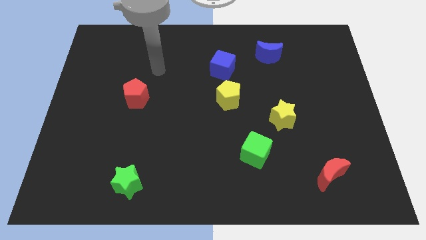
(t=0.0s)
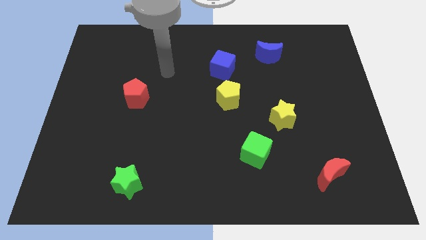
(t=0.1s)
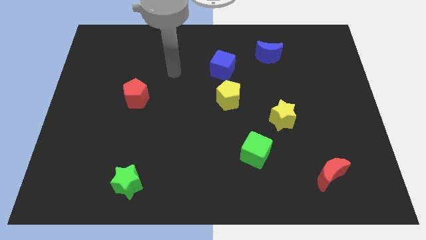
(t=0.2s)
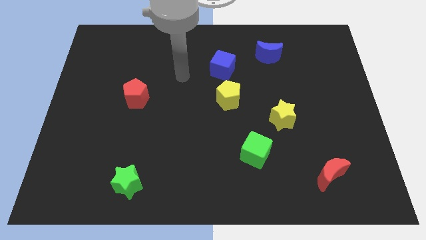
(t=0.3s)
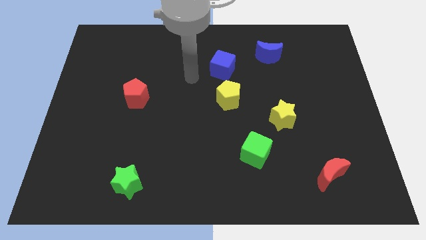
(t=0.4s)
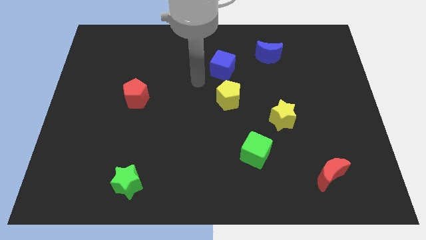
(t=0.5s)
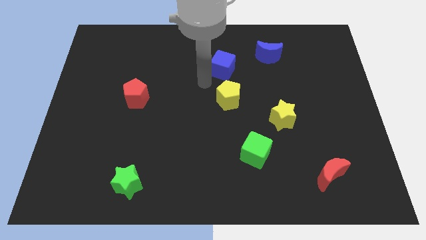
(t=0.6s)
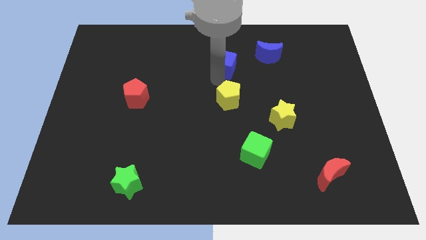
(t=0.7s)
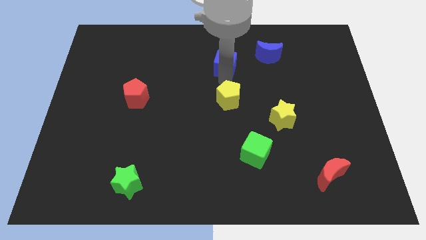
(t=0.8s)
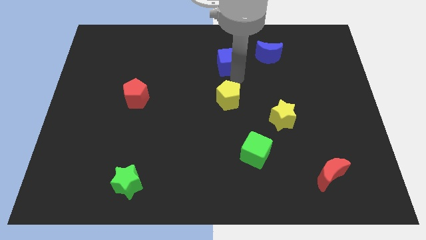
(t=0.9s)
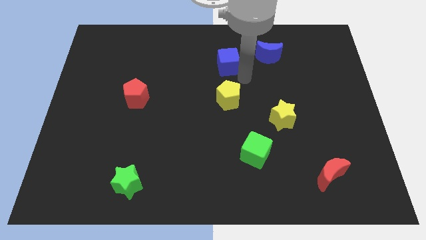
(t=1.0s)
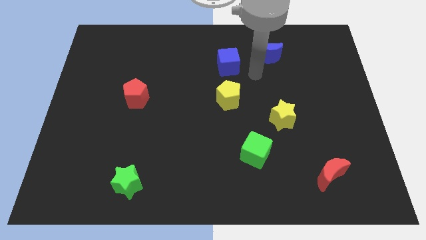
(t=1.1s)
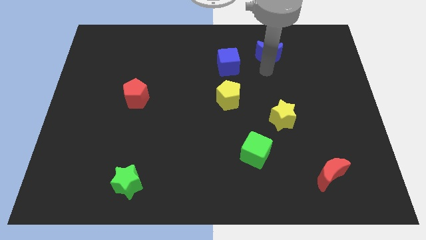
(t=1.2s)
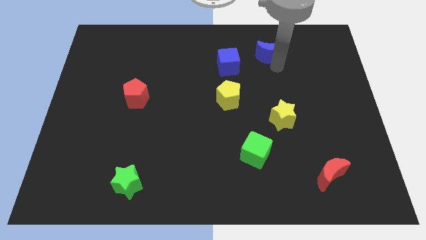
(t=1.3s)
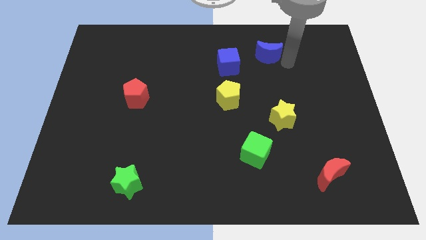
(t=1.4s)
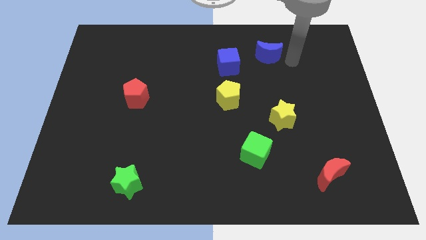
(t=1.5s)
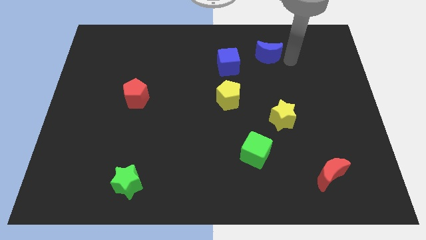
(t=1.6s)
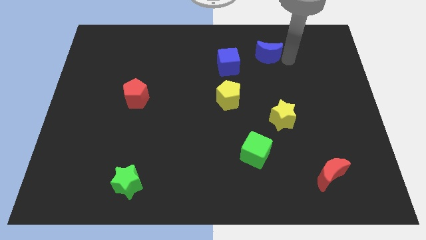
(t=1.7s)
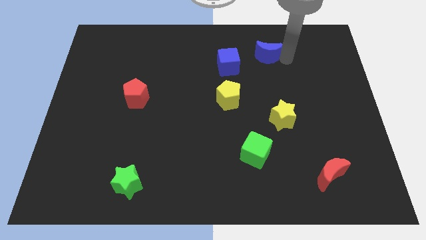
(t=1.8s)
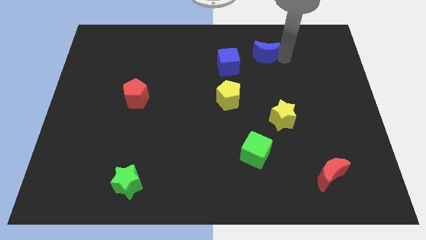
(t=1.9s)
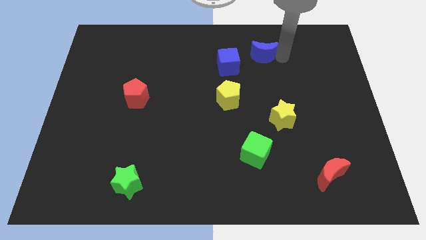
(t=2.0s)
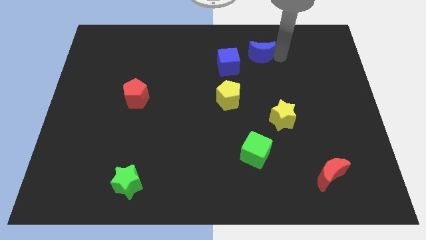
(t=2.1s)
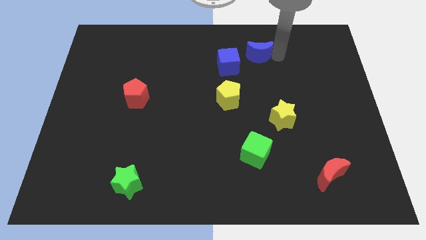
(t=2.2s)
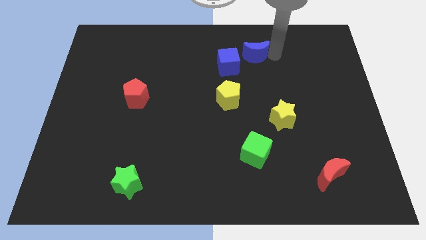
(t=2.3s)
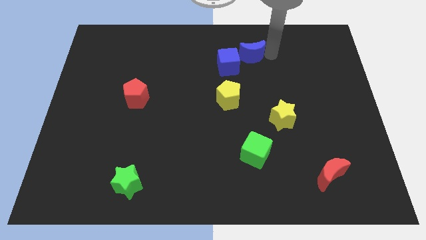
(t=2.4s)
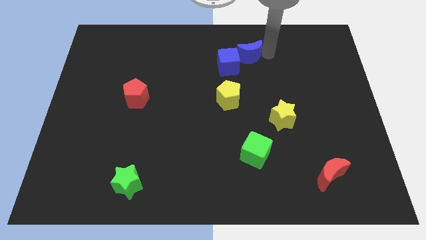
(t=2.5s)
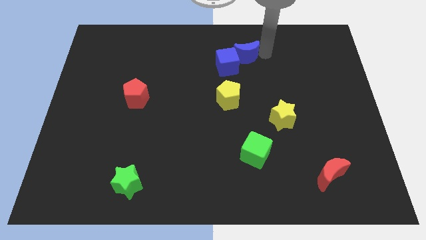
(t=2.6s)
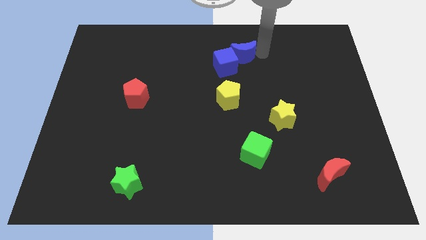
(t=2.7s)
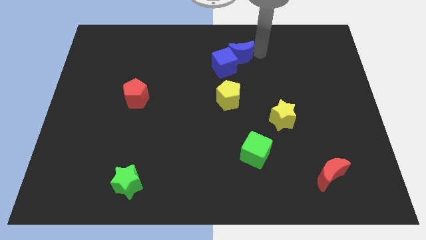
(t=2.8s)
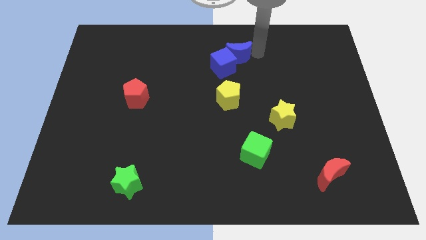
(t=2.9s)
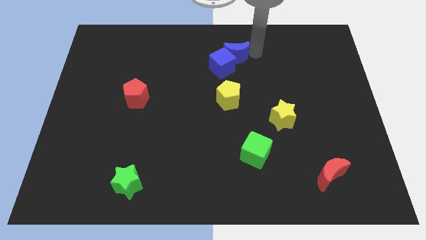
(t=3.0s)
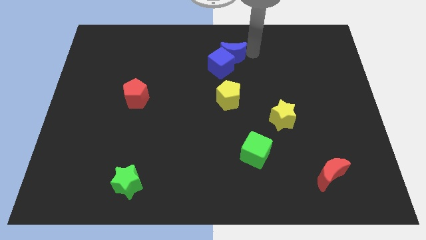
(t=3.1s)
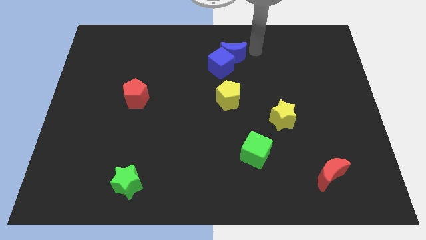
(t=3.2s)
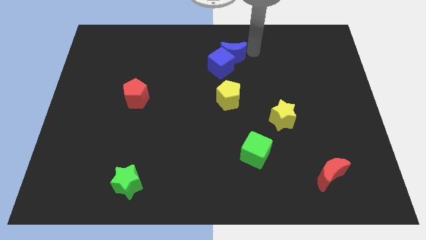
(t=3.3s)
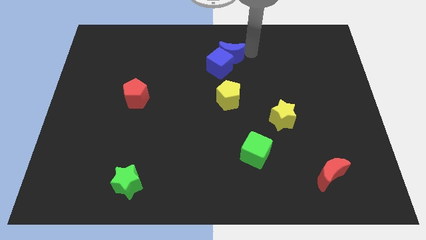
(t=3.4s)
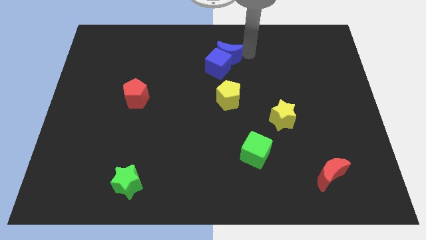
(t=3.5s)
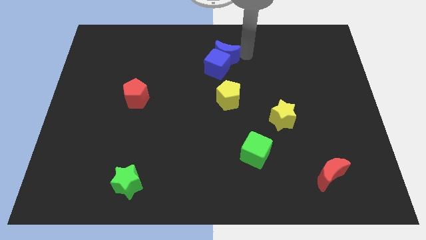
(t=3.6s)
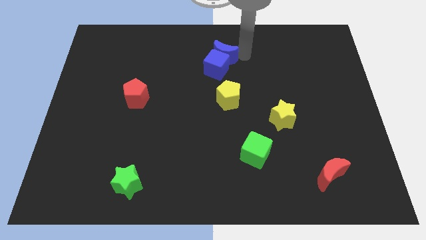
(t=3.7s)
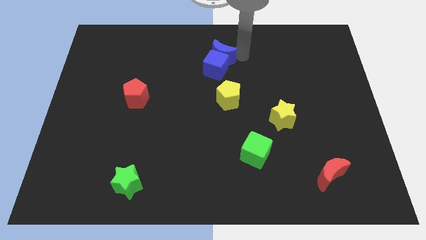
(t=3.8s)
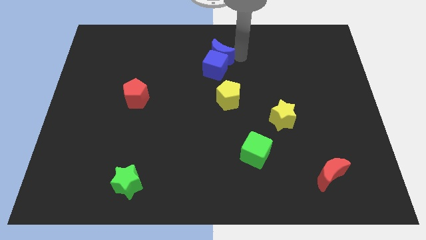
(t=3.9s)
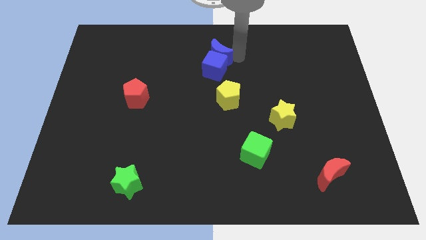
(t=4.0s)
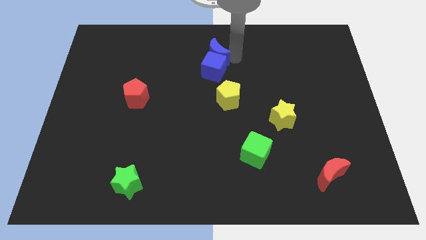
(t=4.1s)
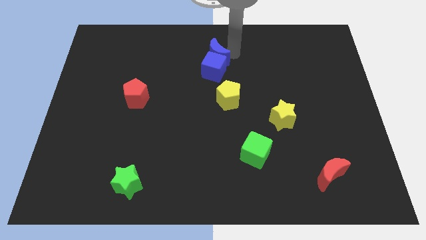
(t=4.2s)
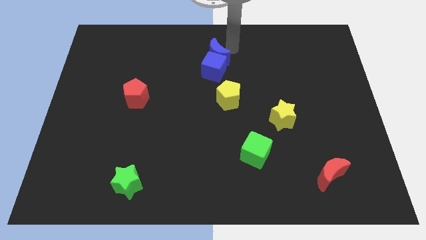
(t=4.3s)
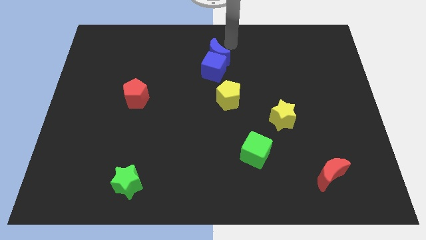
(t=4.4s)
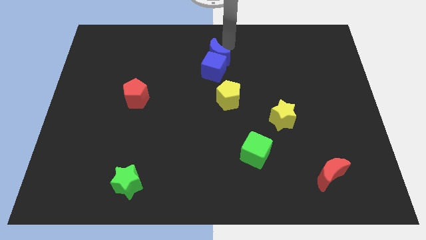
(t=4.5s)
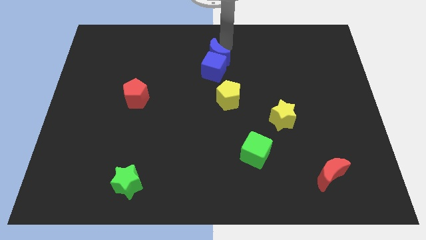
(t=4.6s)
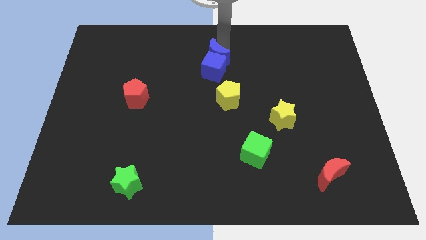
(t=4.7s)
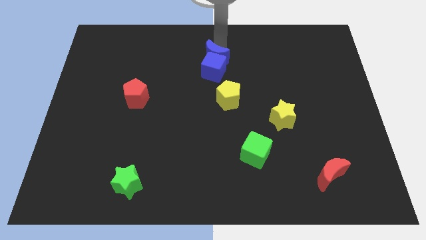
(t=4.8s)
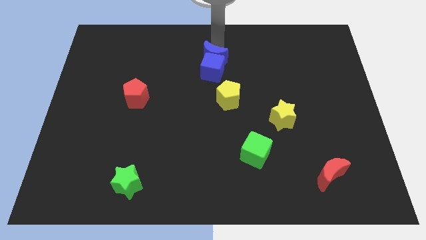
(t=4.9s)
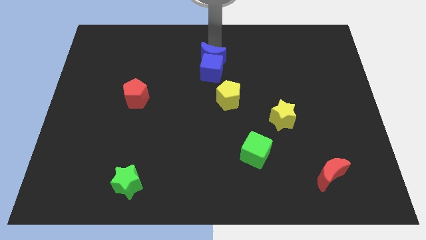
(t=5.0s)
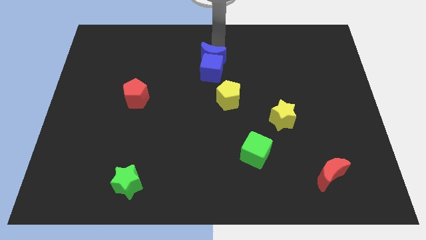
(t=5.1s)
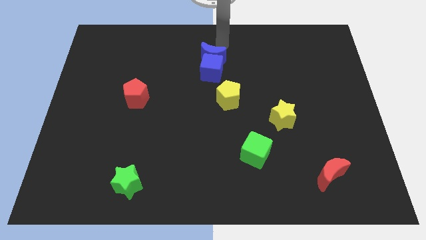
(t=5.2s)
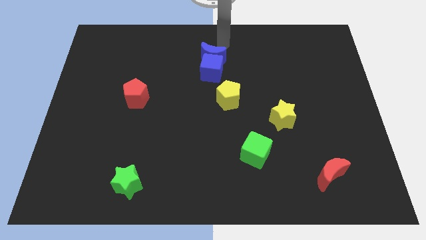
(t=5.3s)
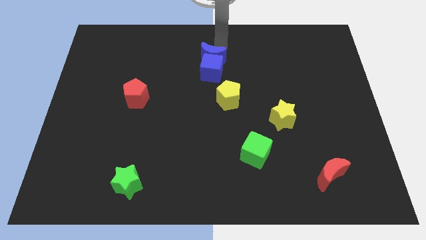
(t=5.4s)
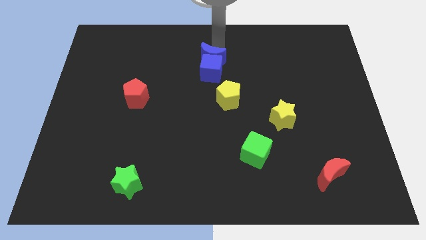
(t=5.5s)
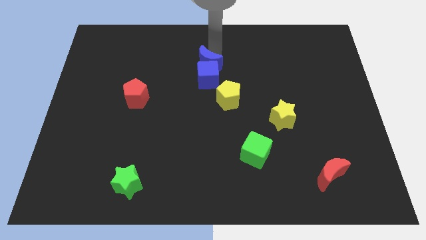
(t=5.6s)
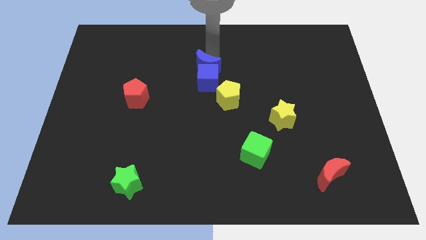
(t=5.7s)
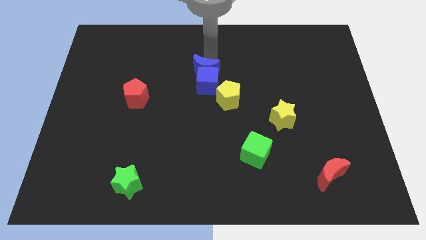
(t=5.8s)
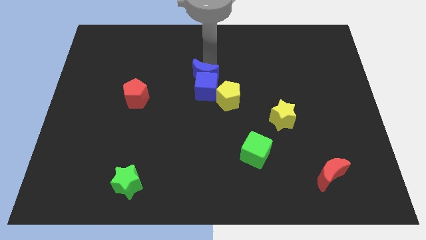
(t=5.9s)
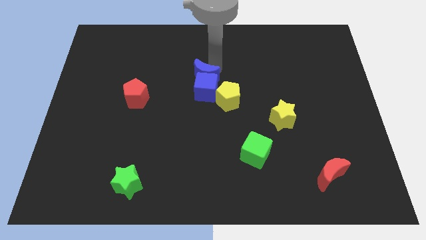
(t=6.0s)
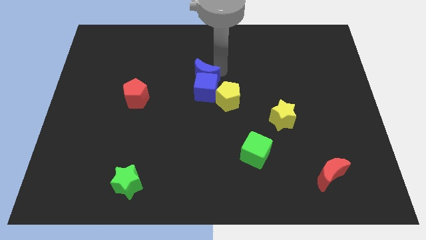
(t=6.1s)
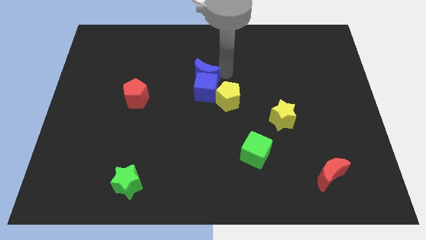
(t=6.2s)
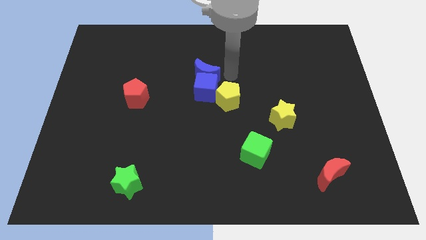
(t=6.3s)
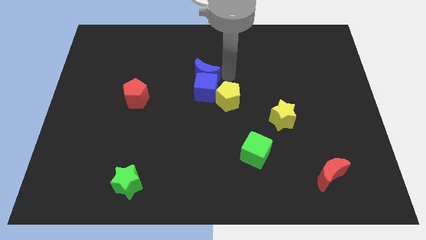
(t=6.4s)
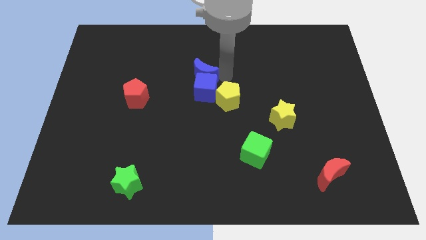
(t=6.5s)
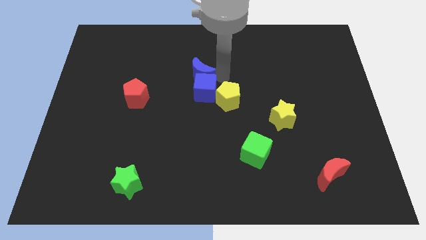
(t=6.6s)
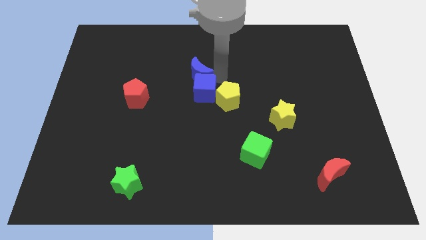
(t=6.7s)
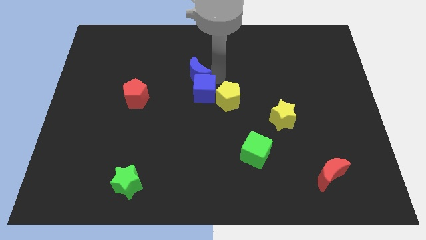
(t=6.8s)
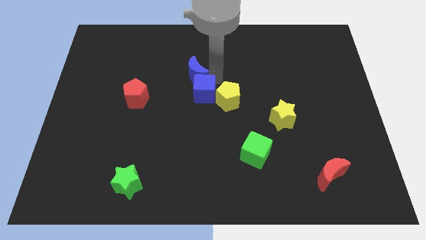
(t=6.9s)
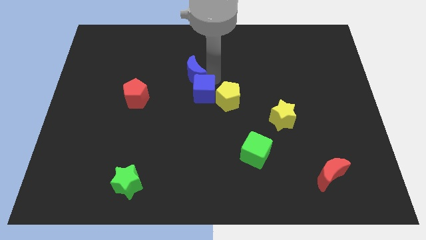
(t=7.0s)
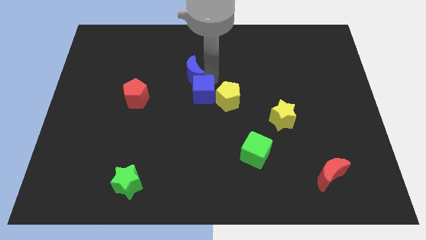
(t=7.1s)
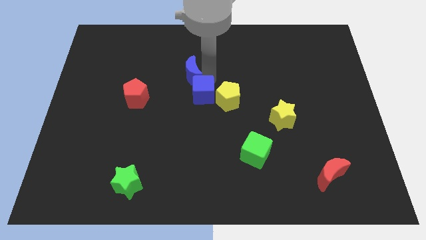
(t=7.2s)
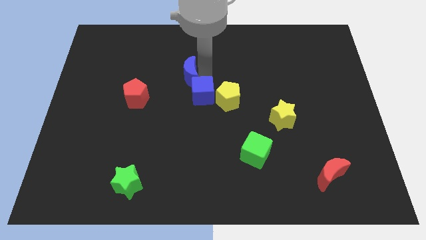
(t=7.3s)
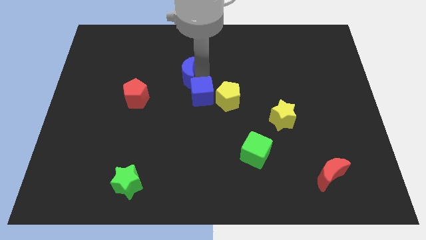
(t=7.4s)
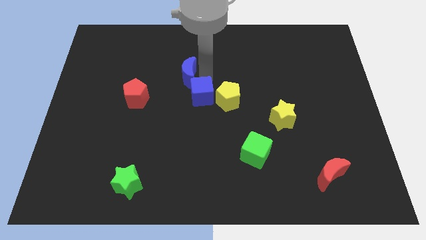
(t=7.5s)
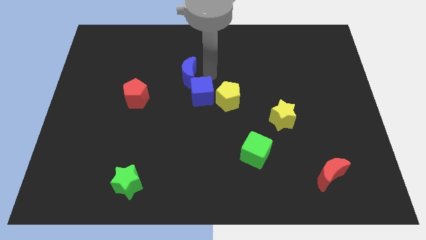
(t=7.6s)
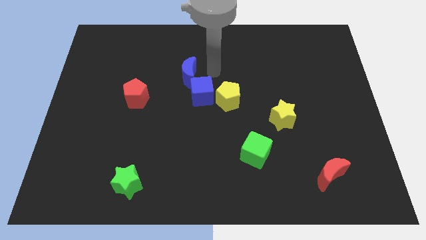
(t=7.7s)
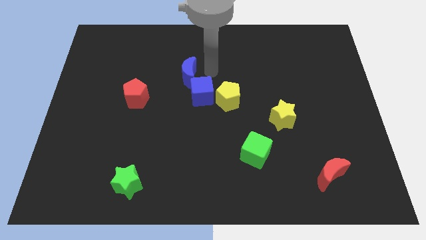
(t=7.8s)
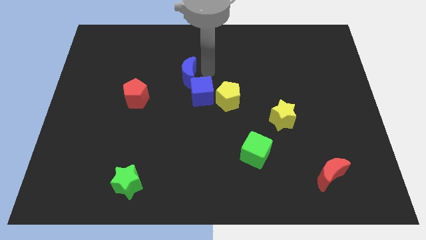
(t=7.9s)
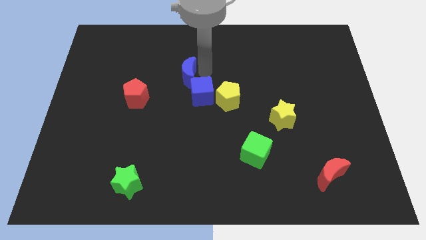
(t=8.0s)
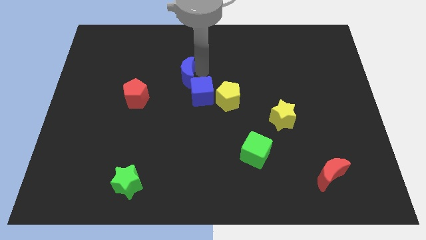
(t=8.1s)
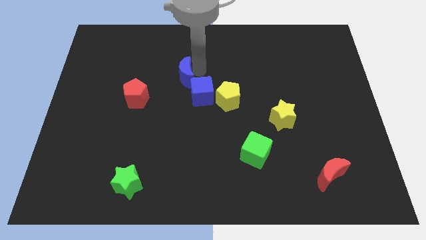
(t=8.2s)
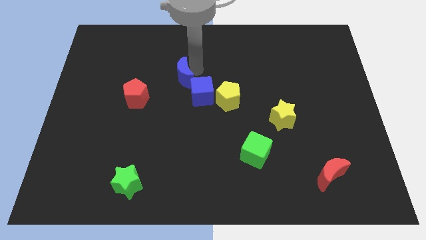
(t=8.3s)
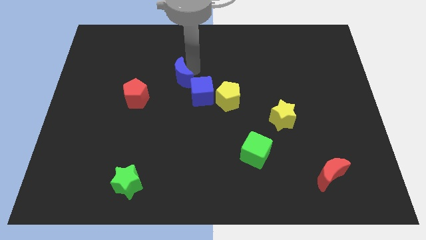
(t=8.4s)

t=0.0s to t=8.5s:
push the blue moon to the top right side of the red pentagon
